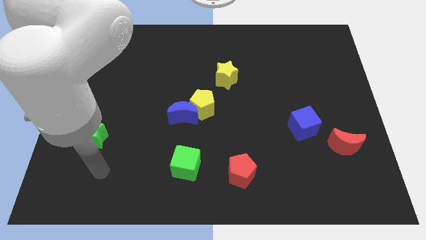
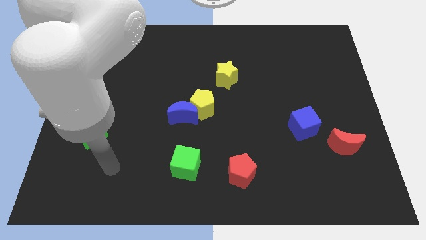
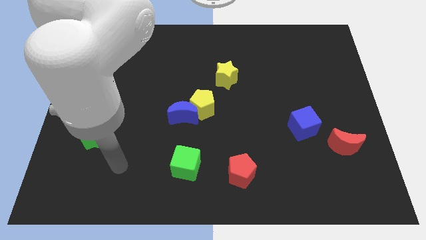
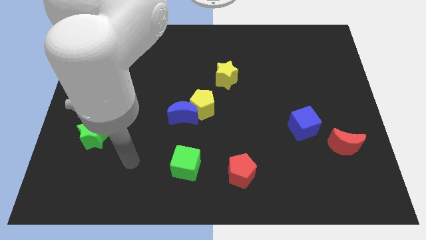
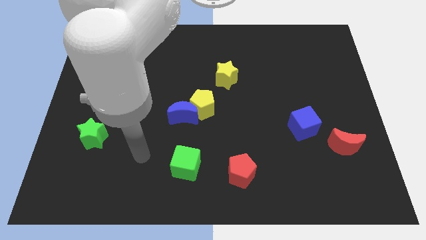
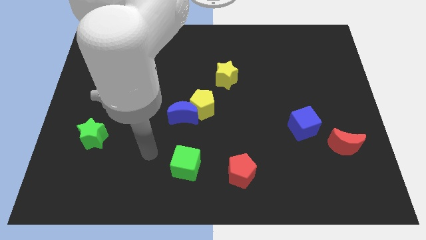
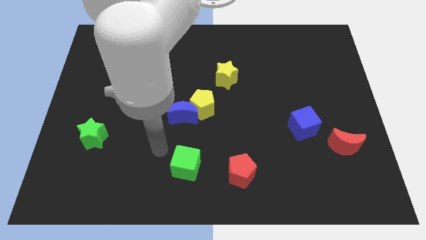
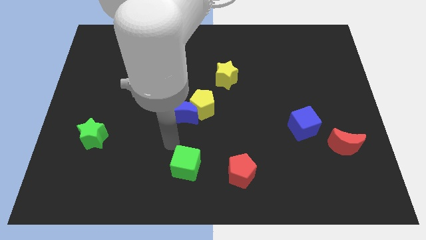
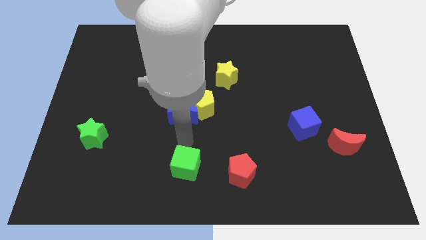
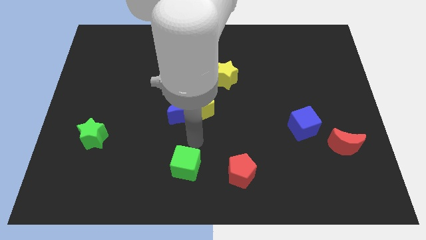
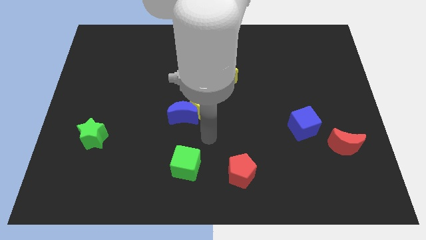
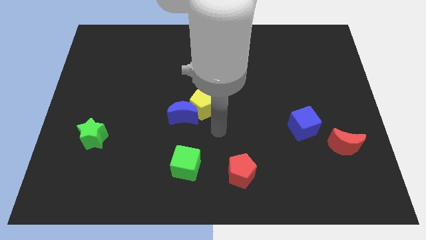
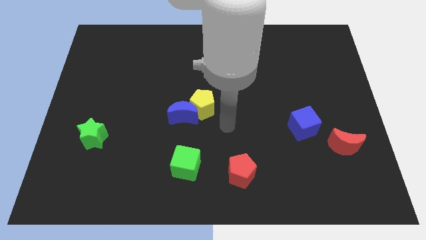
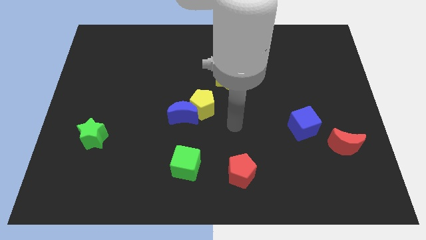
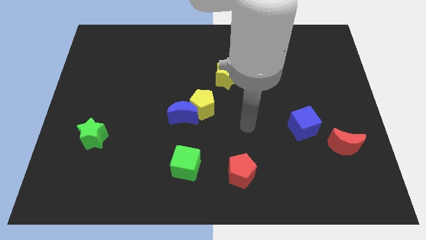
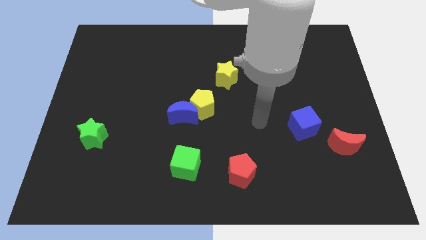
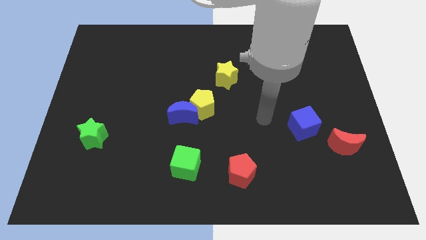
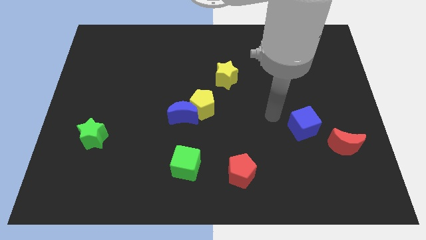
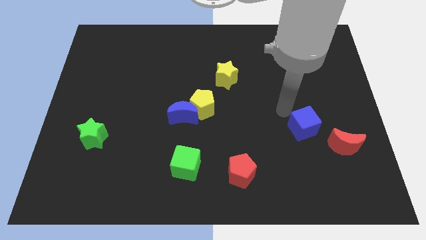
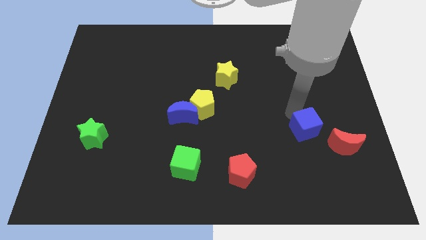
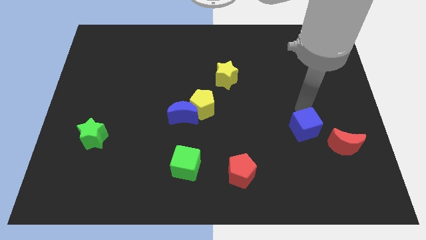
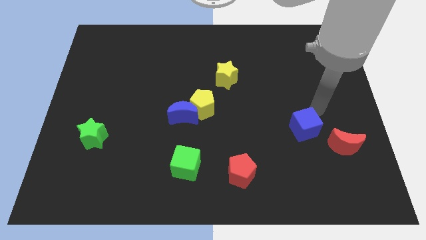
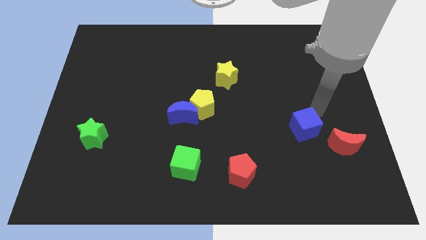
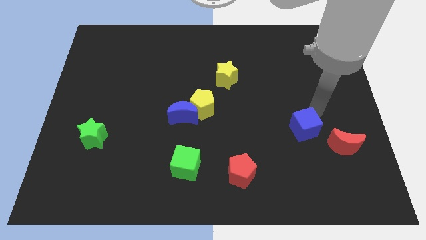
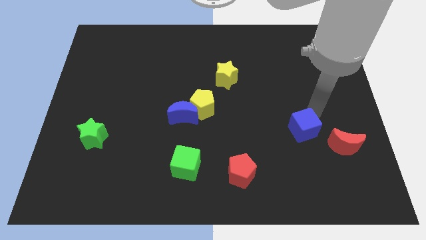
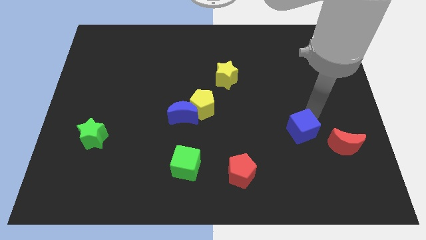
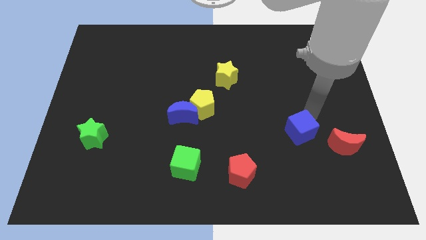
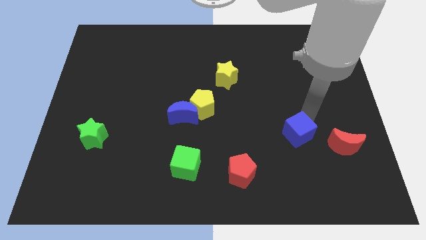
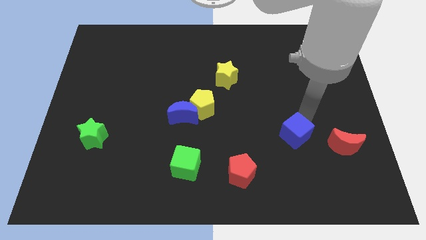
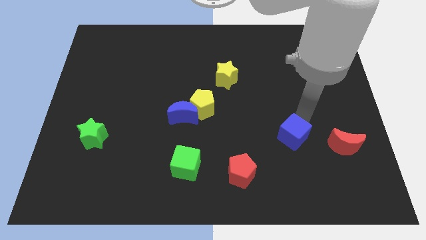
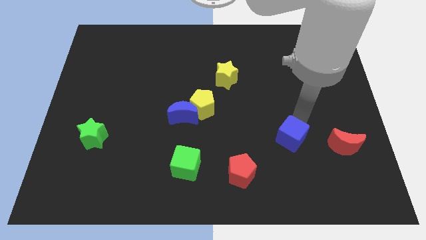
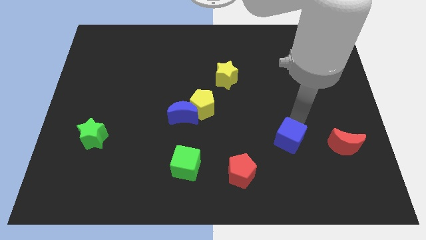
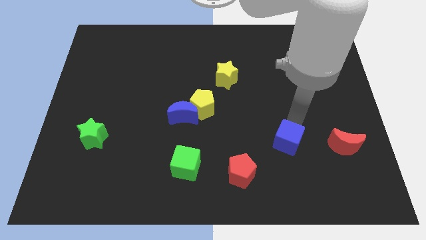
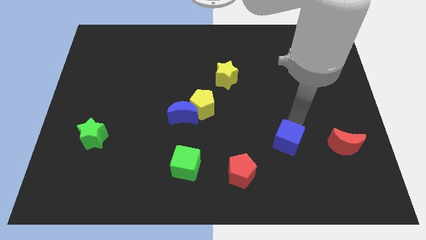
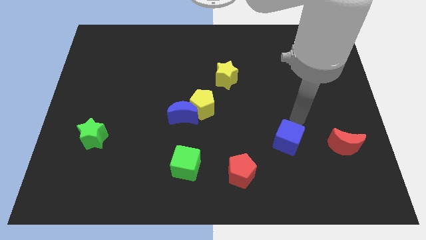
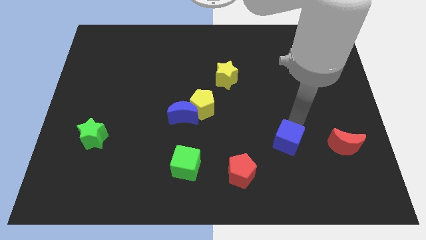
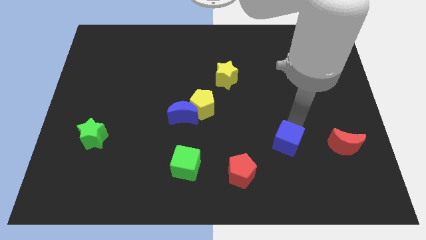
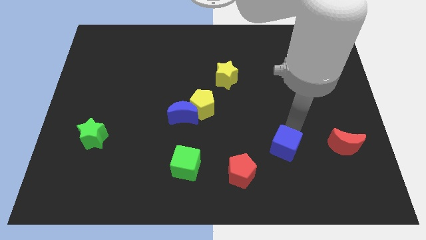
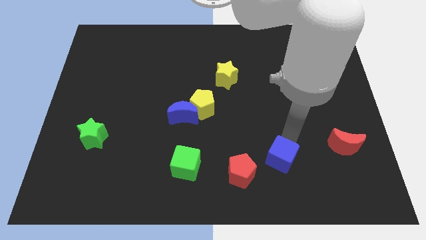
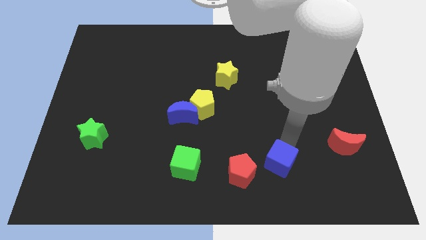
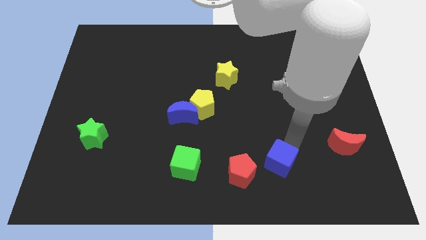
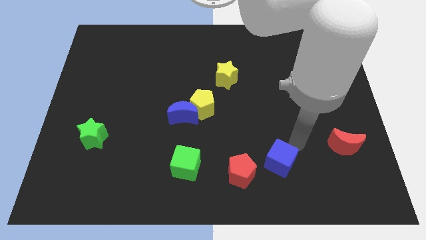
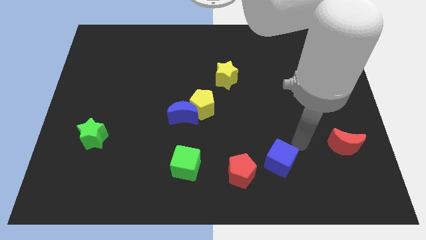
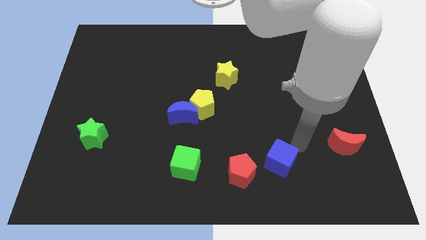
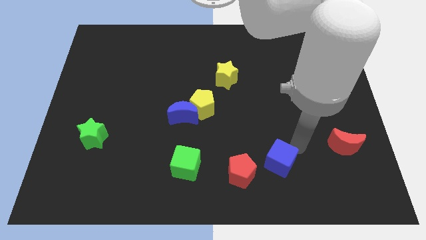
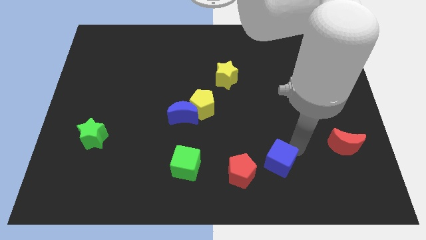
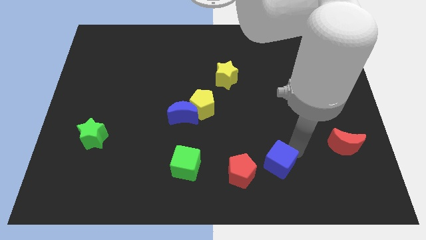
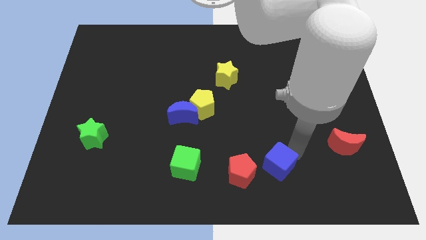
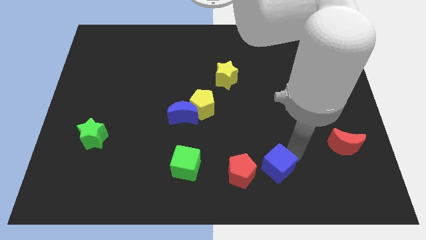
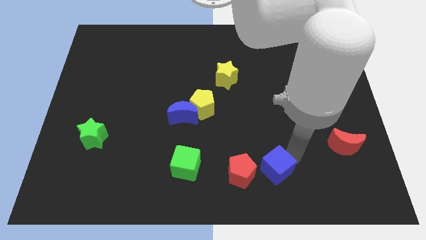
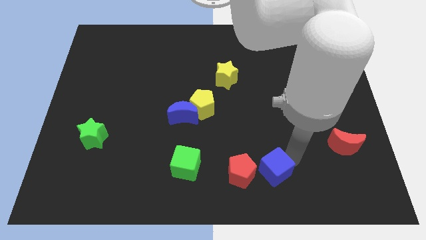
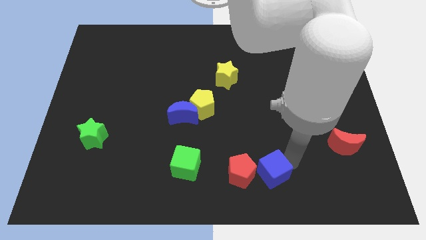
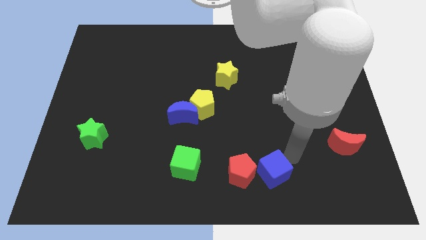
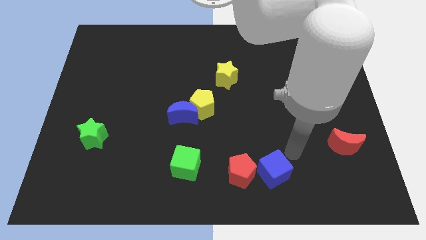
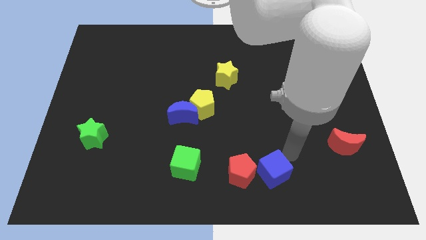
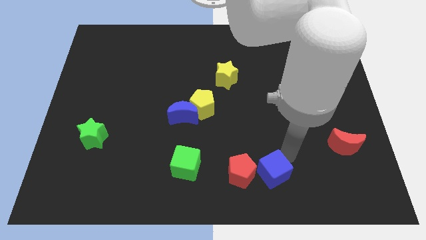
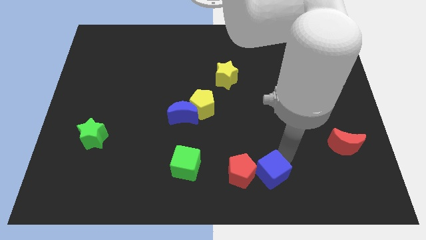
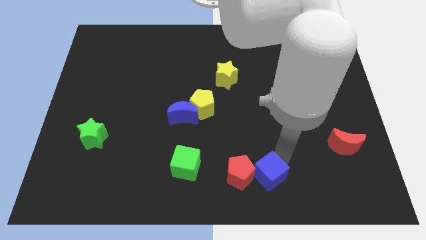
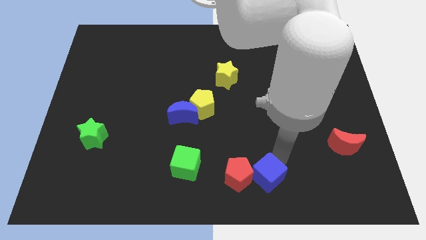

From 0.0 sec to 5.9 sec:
slide the blue cube to the bottom

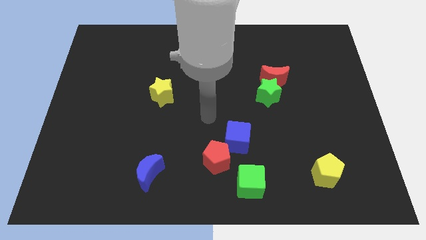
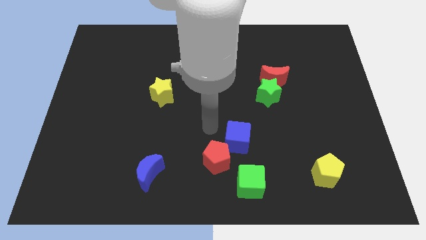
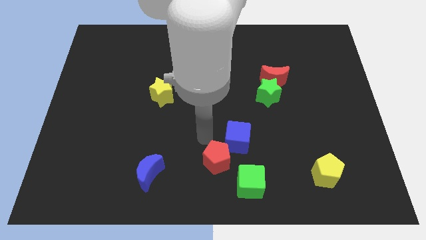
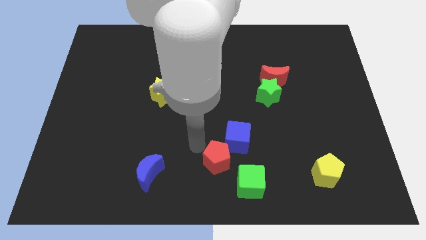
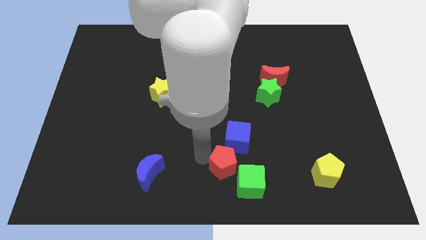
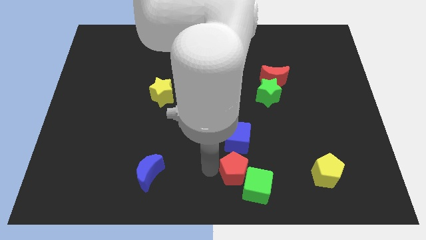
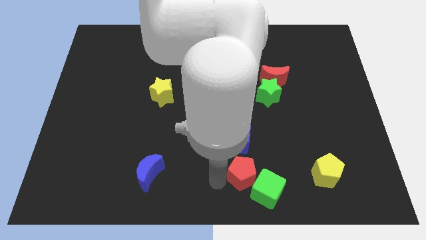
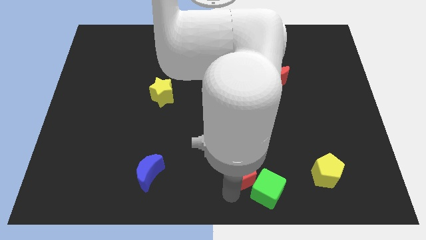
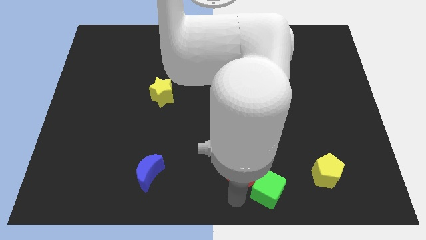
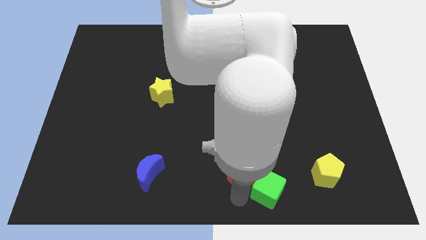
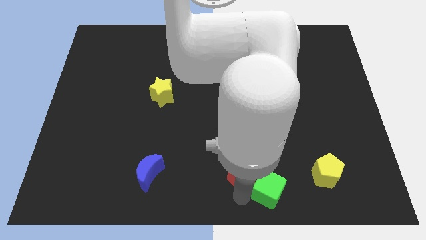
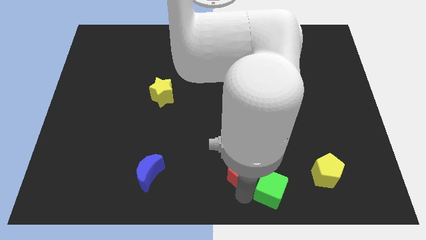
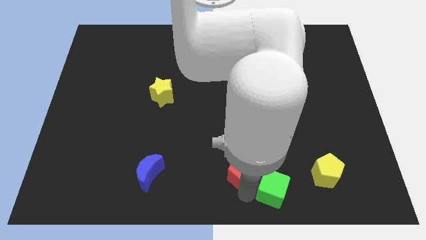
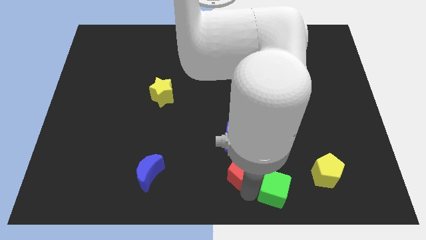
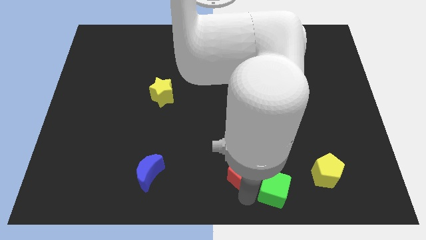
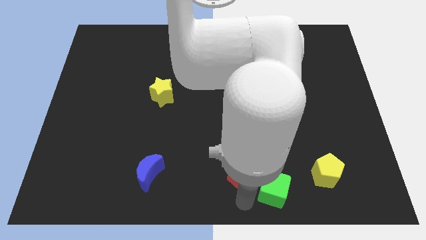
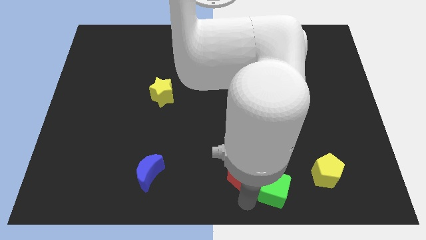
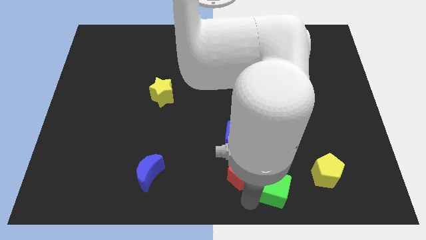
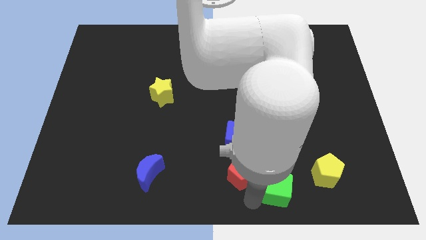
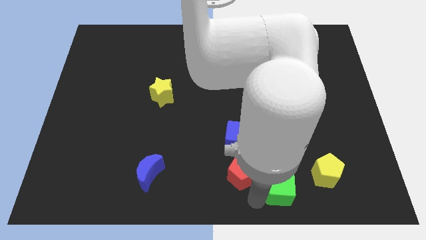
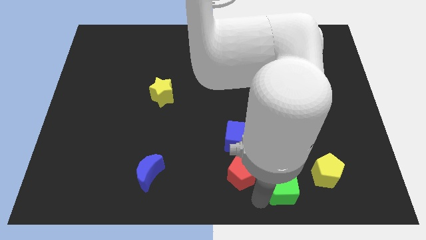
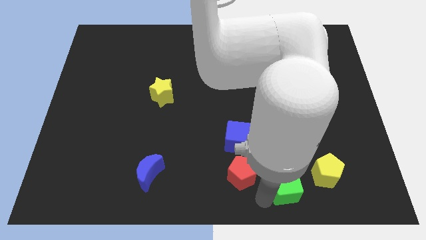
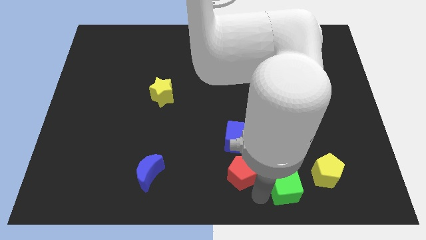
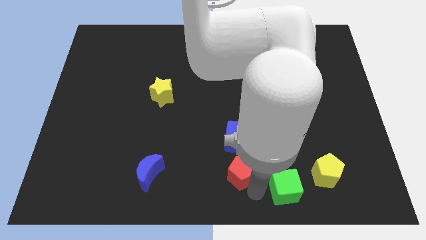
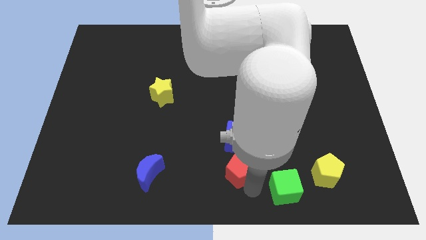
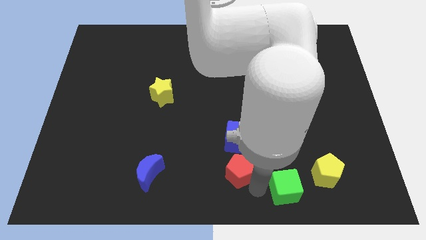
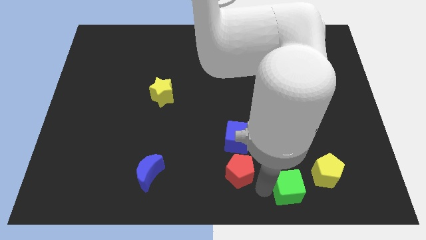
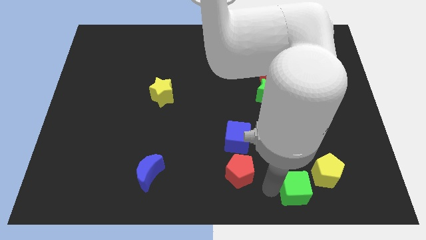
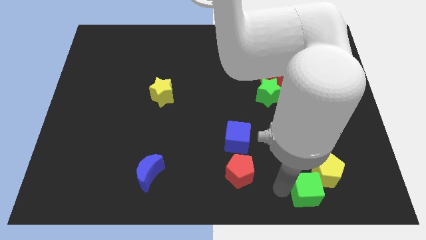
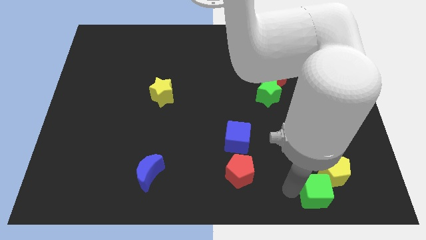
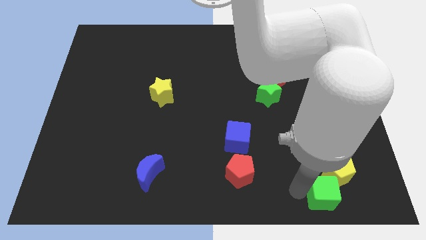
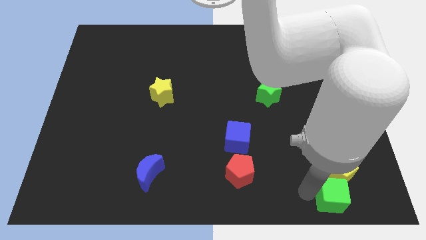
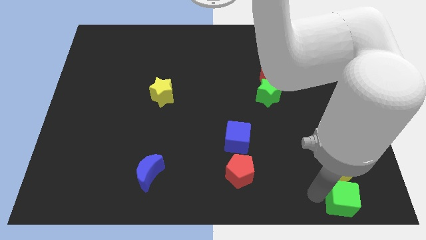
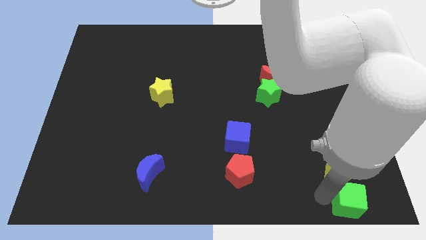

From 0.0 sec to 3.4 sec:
slide the green cube to the bottom right corner
